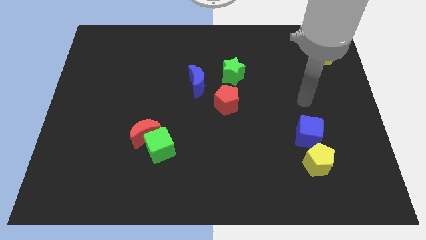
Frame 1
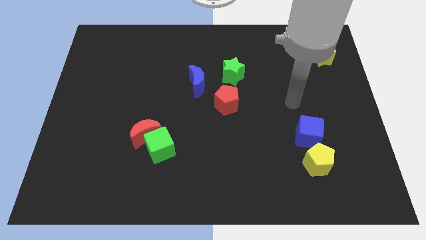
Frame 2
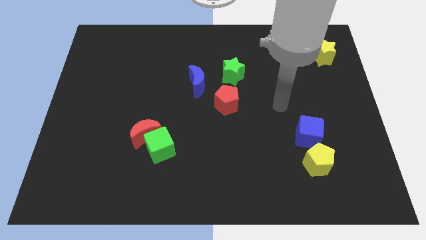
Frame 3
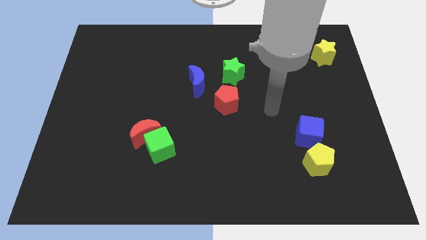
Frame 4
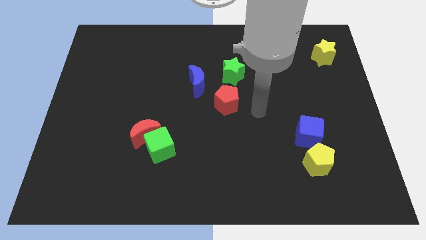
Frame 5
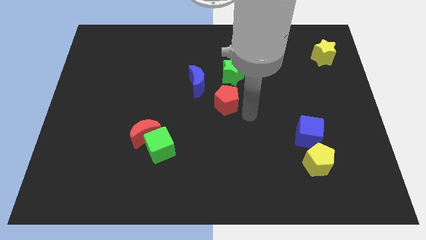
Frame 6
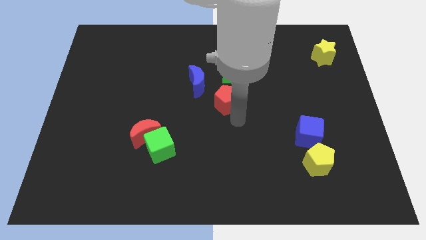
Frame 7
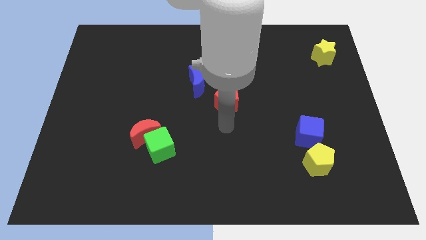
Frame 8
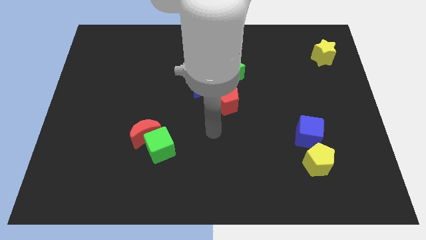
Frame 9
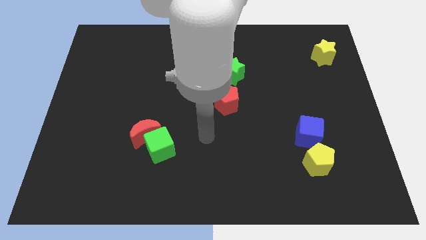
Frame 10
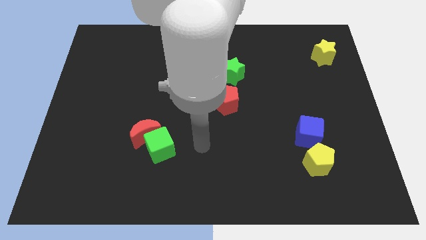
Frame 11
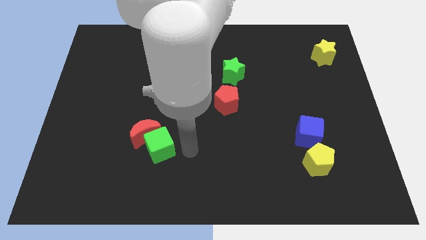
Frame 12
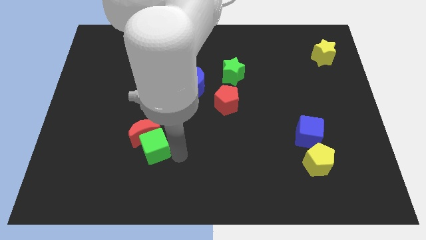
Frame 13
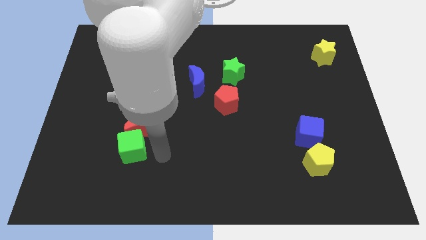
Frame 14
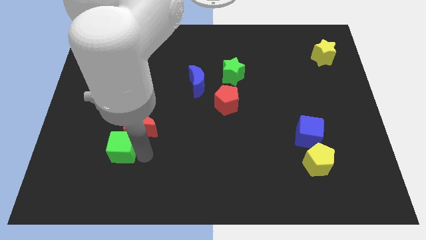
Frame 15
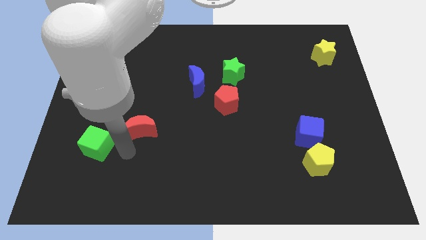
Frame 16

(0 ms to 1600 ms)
move the red moon away from the green cube

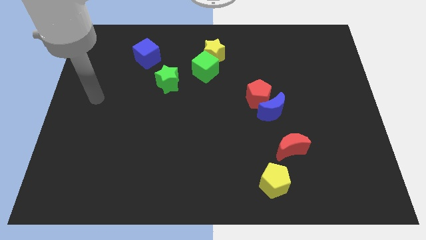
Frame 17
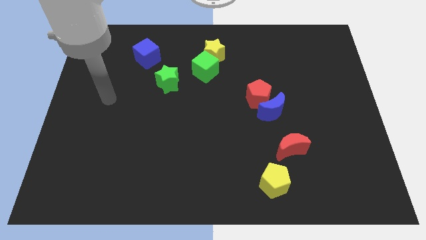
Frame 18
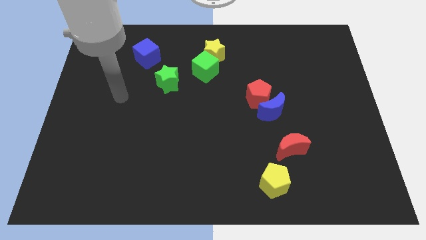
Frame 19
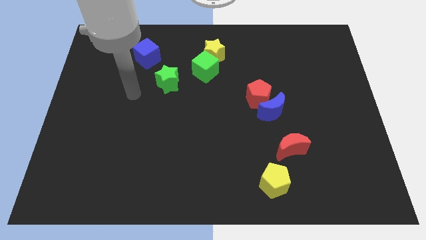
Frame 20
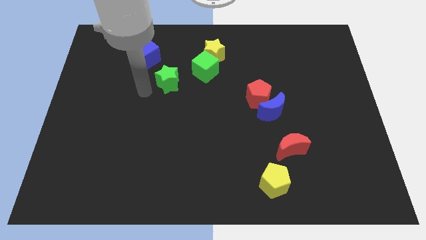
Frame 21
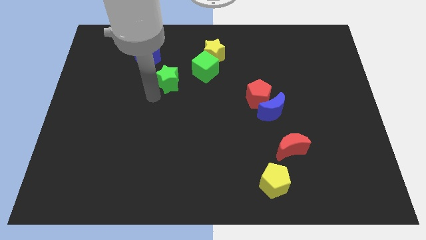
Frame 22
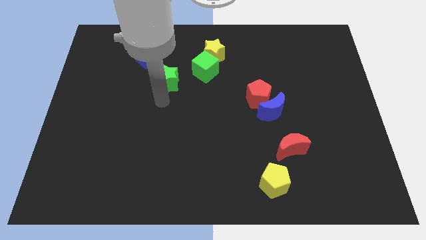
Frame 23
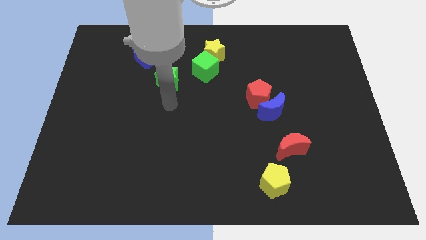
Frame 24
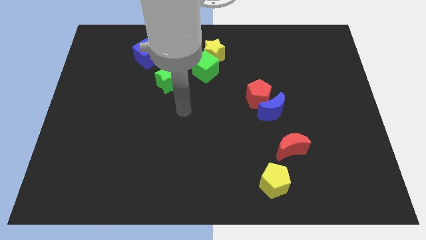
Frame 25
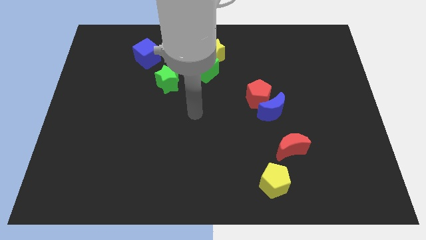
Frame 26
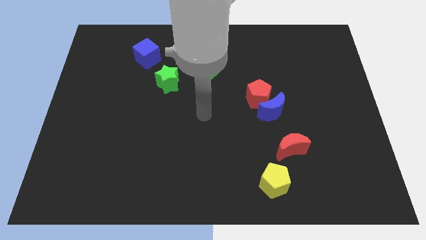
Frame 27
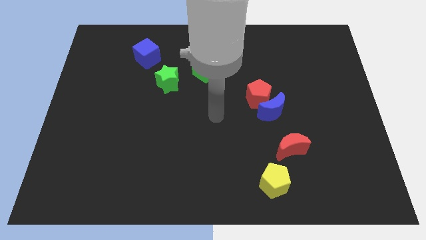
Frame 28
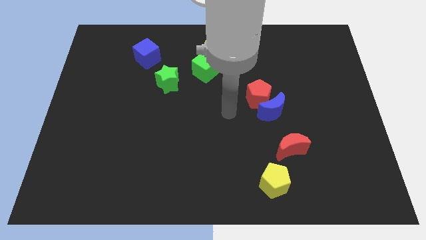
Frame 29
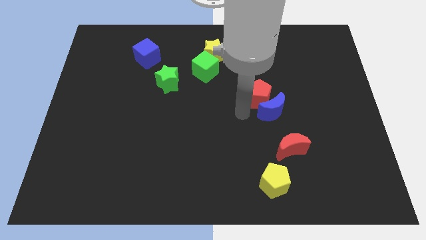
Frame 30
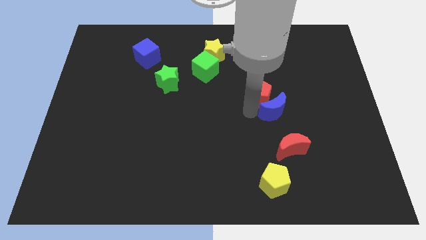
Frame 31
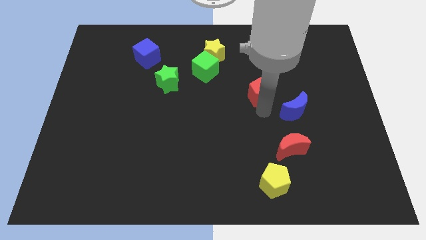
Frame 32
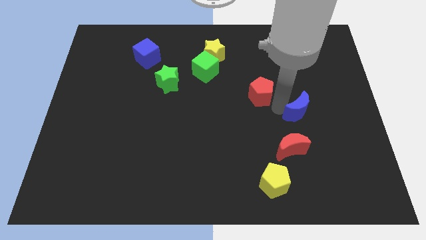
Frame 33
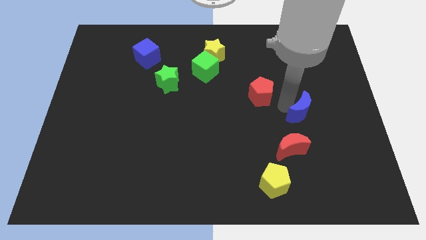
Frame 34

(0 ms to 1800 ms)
pull the red pentagon apart from the blue moon

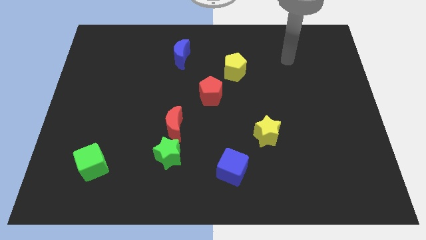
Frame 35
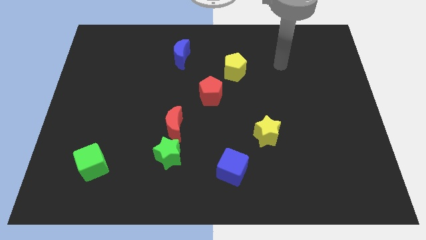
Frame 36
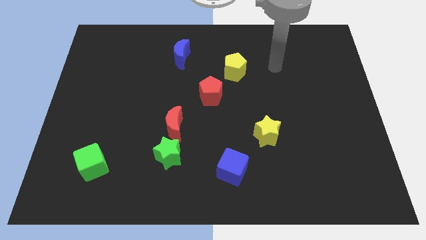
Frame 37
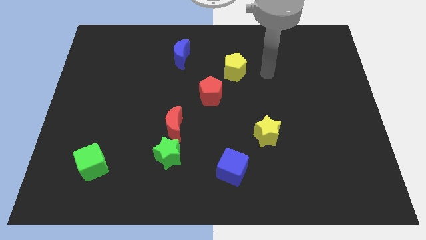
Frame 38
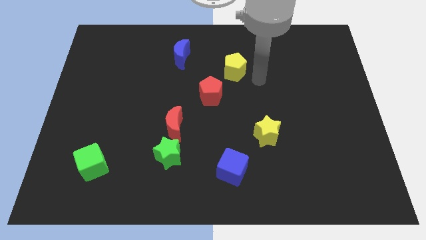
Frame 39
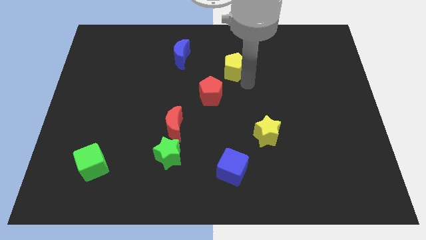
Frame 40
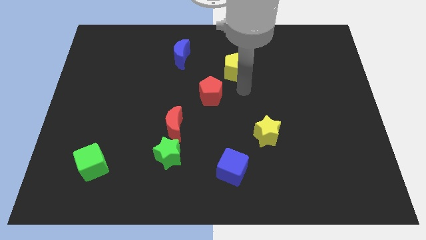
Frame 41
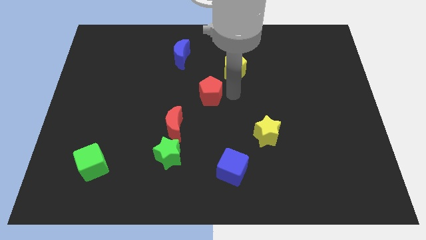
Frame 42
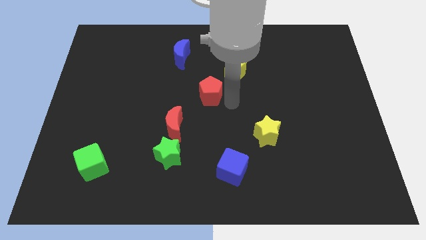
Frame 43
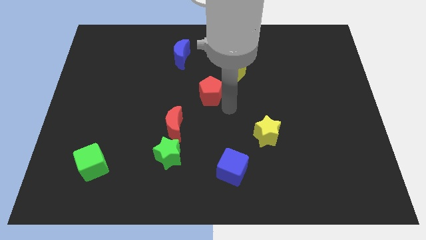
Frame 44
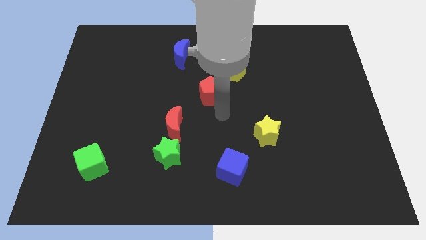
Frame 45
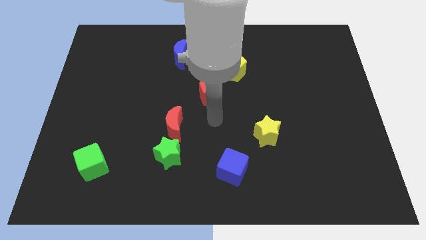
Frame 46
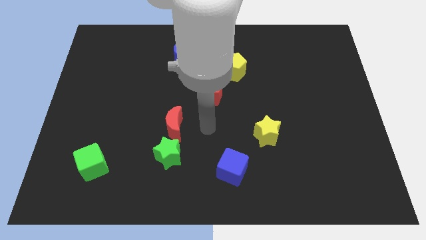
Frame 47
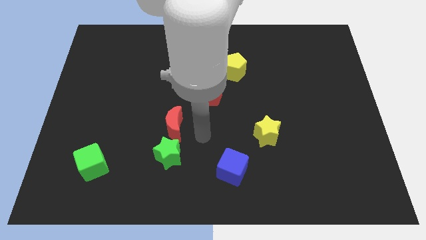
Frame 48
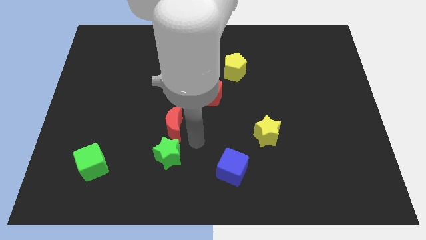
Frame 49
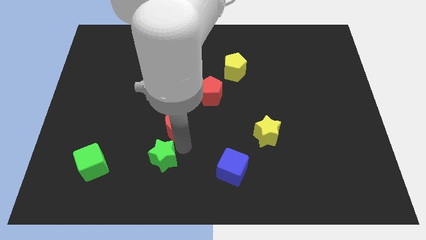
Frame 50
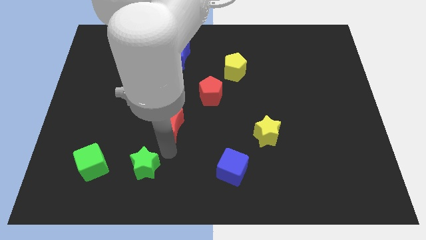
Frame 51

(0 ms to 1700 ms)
move the red moon away from the green star

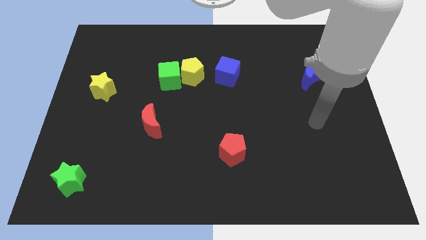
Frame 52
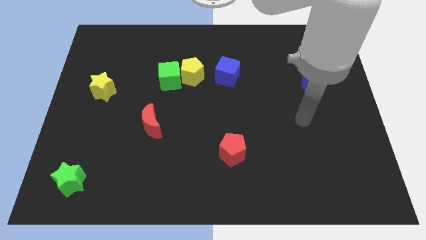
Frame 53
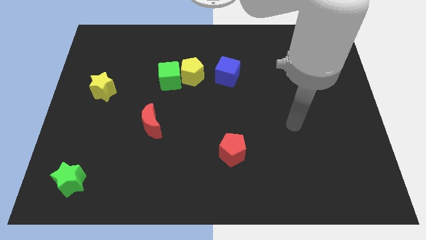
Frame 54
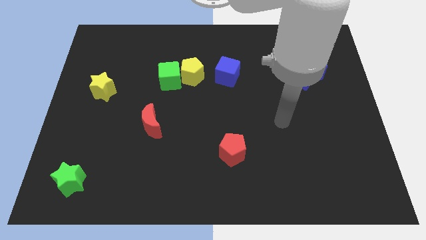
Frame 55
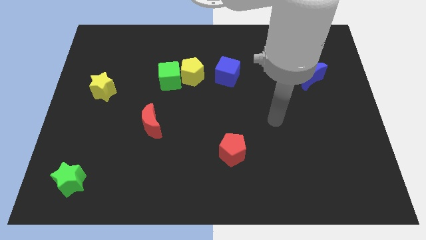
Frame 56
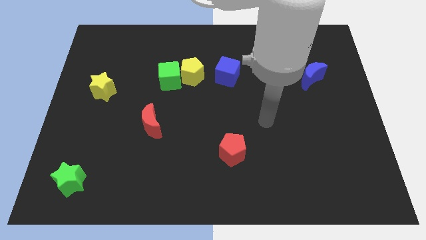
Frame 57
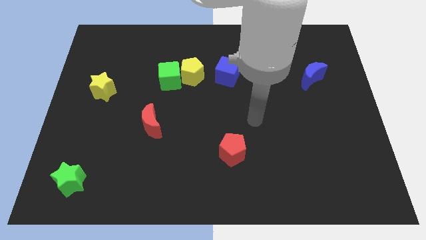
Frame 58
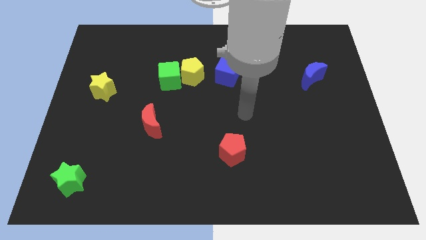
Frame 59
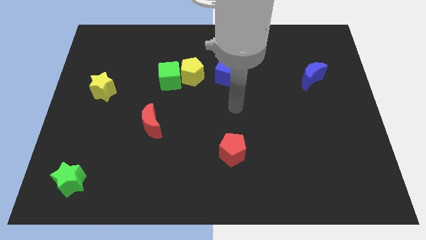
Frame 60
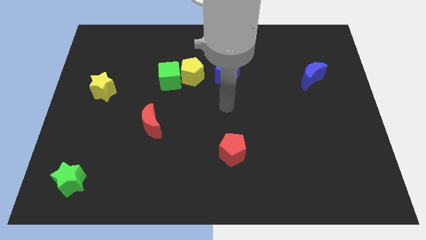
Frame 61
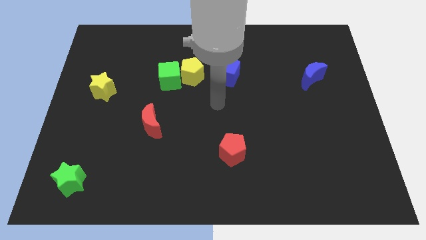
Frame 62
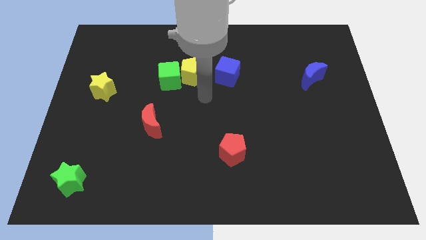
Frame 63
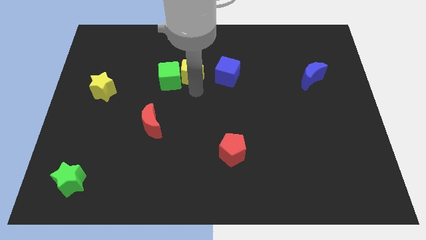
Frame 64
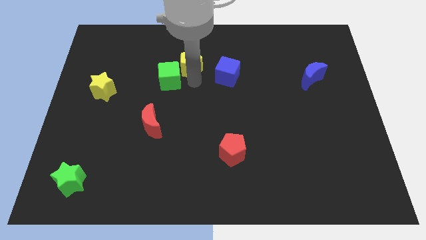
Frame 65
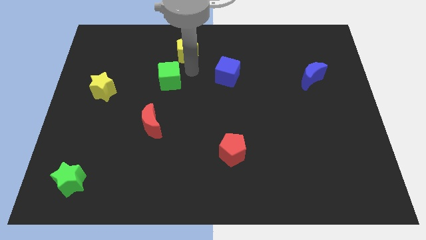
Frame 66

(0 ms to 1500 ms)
move the green cube away from the yellow pentagon

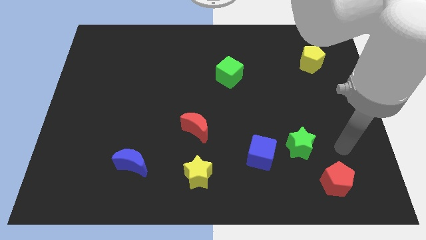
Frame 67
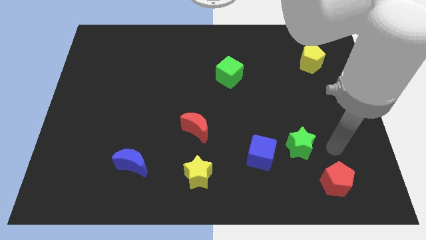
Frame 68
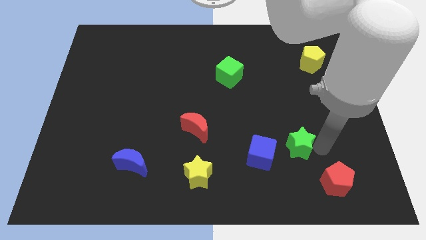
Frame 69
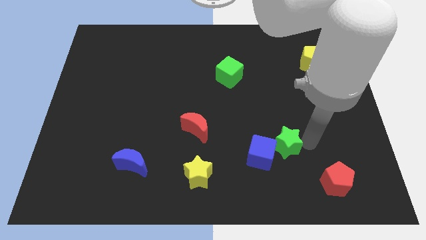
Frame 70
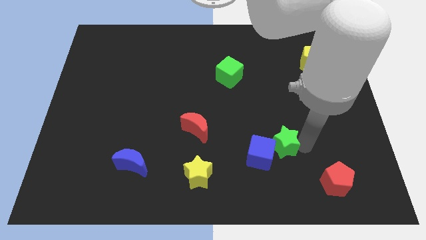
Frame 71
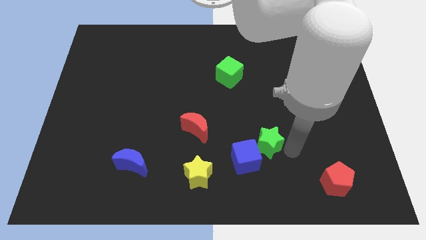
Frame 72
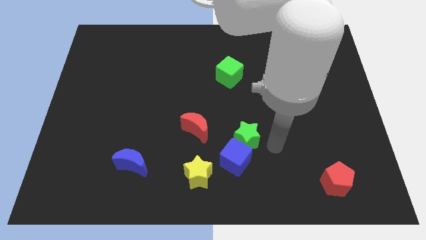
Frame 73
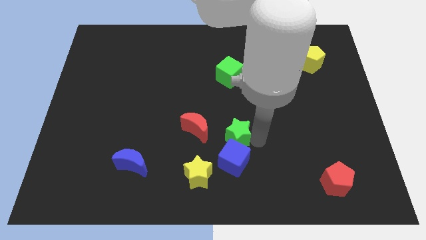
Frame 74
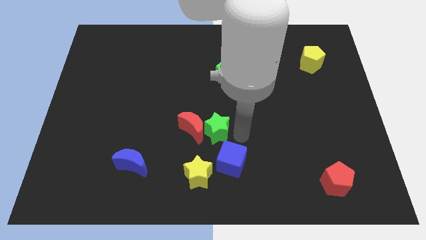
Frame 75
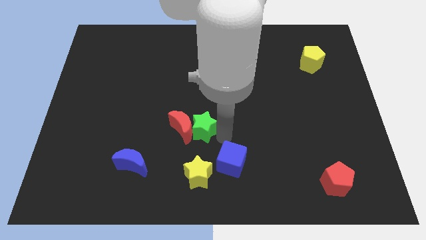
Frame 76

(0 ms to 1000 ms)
pull the blue cube apart from the green star

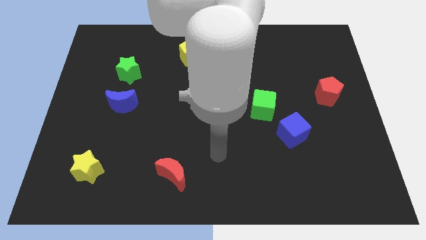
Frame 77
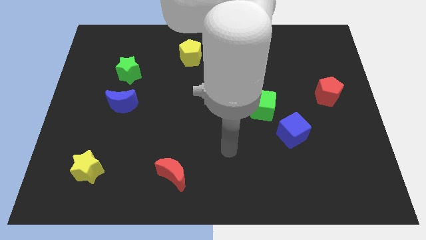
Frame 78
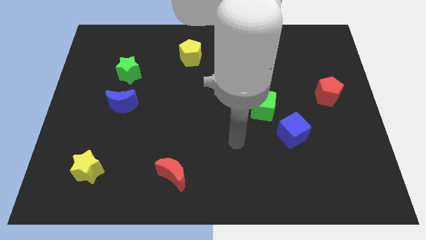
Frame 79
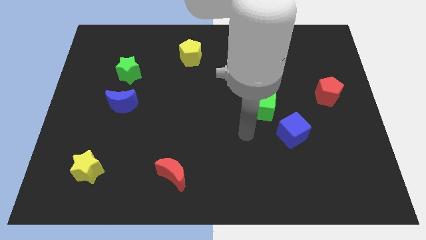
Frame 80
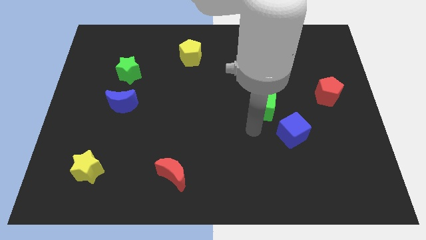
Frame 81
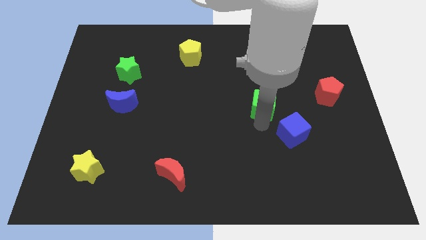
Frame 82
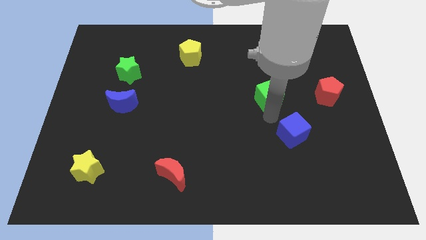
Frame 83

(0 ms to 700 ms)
move the blue cube away from the green cube

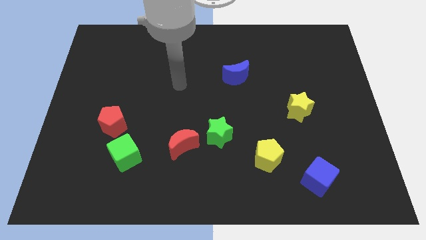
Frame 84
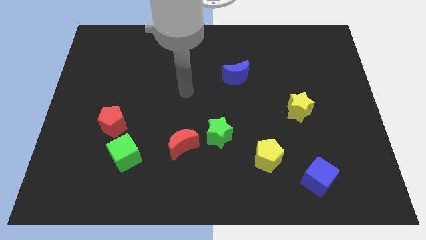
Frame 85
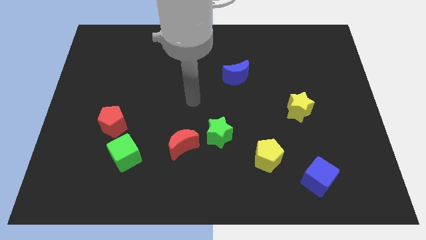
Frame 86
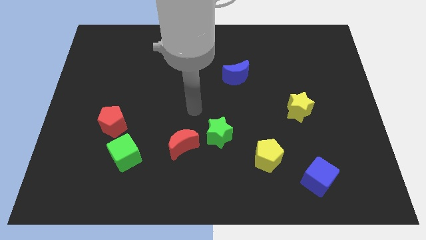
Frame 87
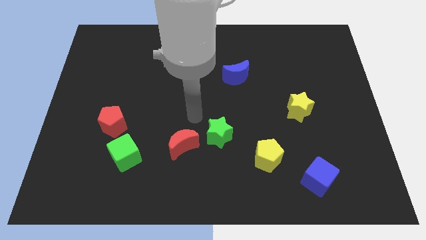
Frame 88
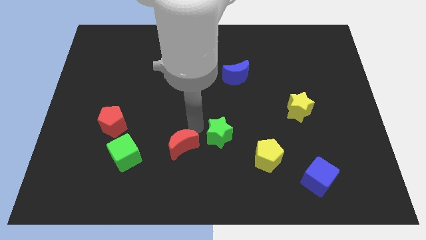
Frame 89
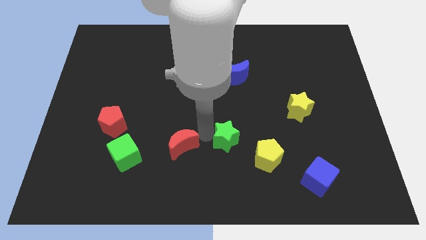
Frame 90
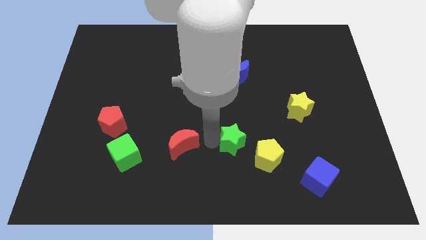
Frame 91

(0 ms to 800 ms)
pull the red moon apart from the green star

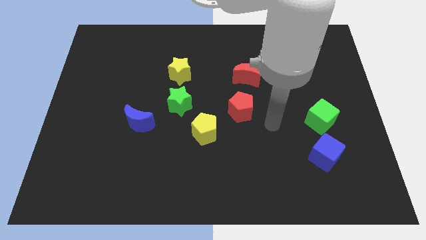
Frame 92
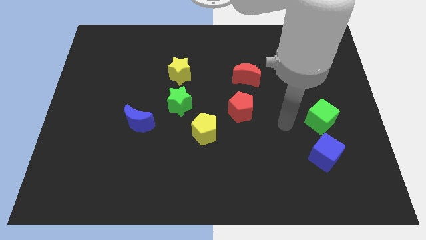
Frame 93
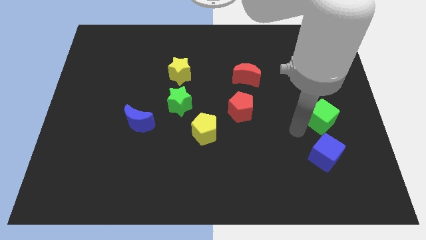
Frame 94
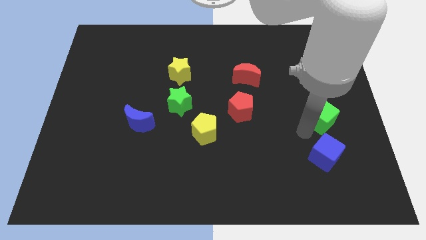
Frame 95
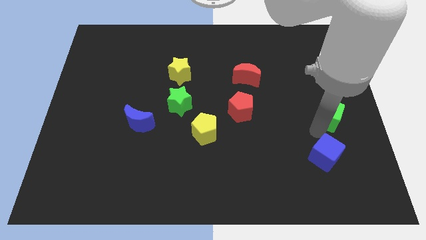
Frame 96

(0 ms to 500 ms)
separate the blue cube from the green cube
